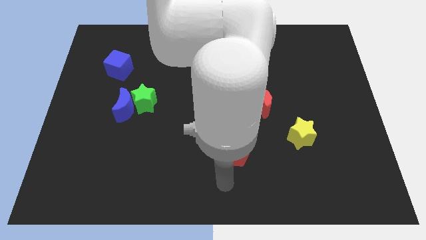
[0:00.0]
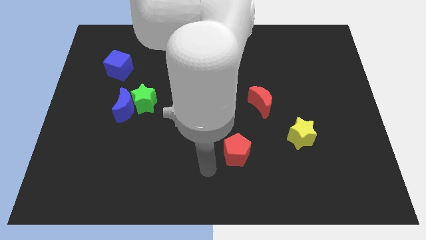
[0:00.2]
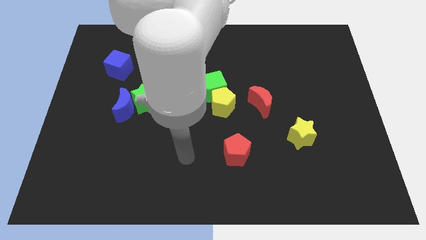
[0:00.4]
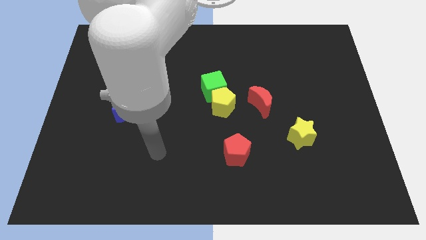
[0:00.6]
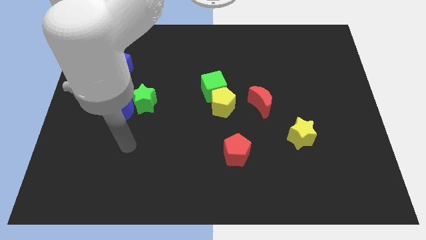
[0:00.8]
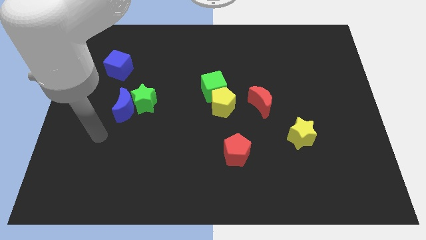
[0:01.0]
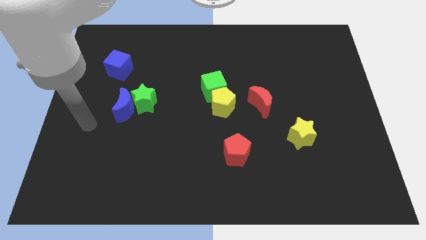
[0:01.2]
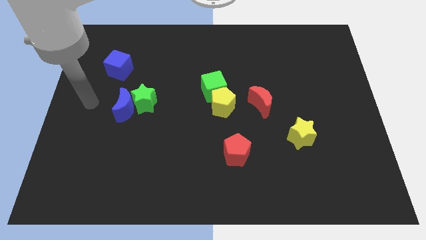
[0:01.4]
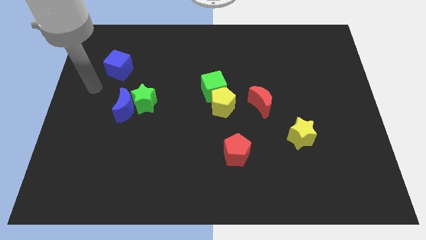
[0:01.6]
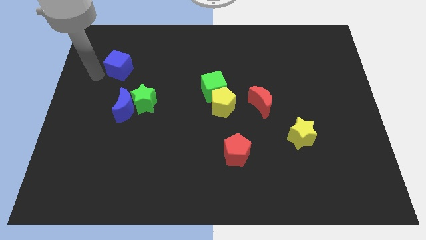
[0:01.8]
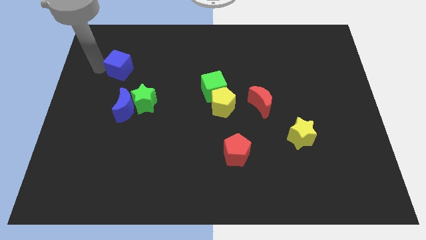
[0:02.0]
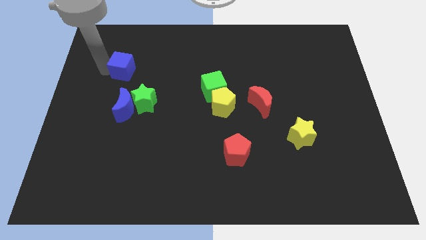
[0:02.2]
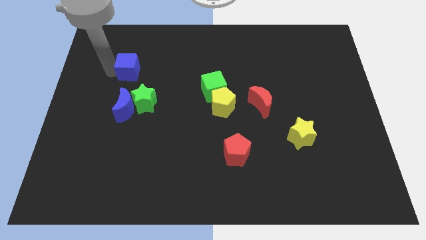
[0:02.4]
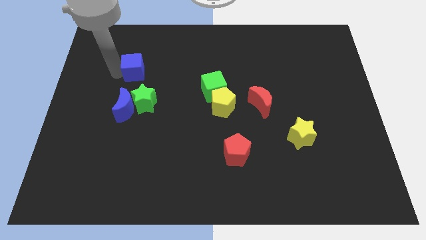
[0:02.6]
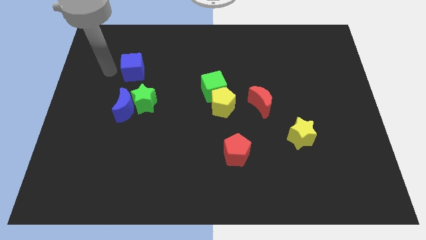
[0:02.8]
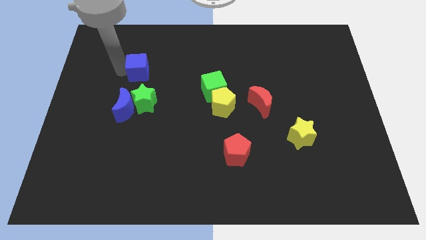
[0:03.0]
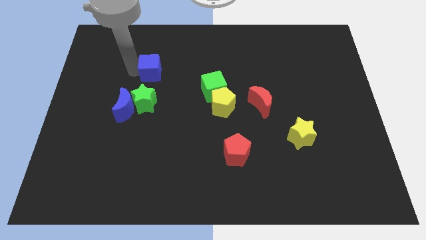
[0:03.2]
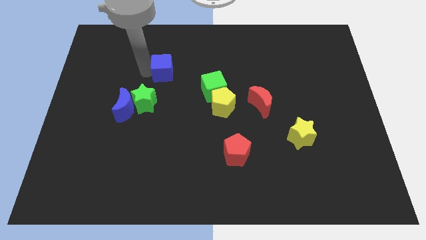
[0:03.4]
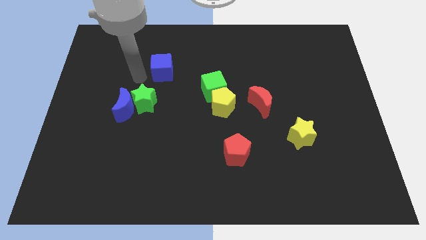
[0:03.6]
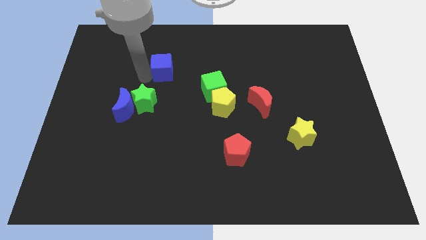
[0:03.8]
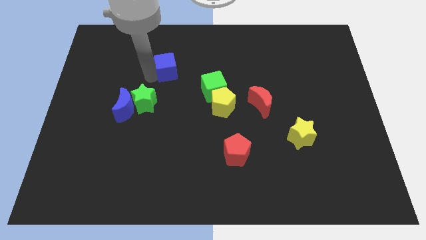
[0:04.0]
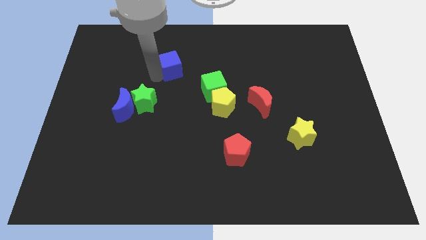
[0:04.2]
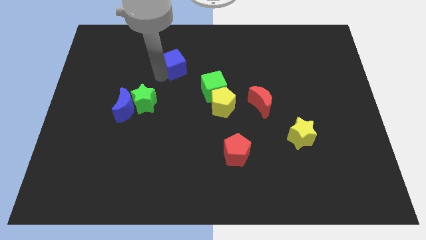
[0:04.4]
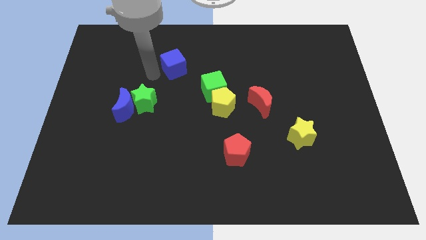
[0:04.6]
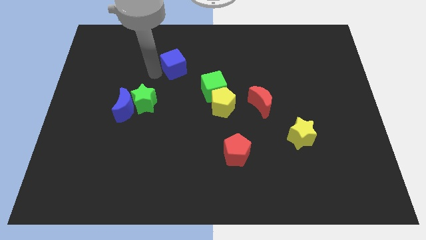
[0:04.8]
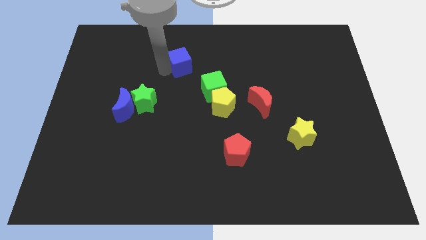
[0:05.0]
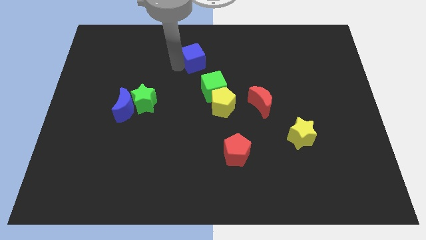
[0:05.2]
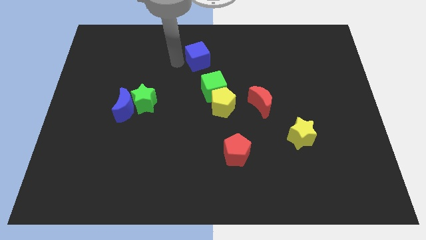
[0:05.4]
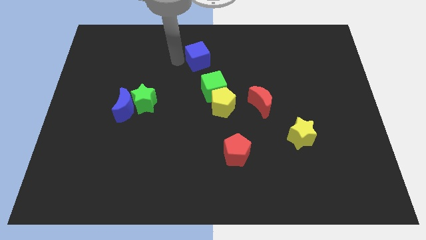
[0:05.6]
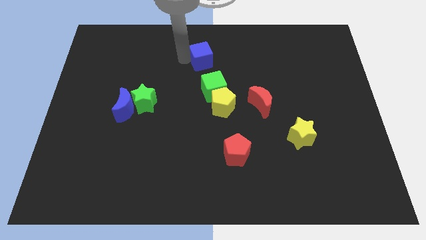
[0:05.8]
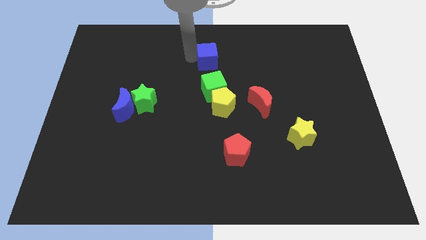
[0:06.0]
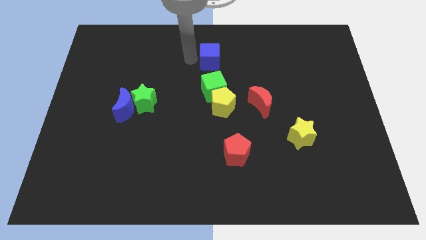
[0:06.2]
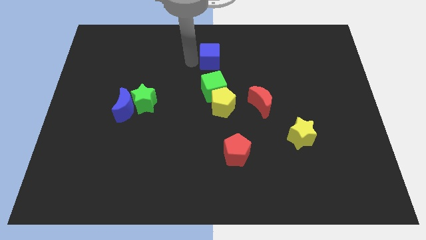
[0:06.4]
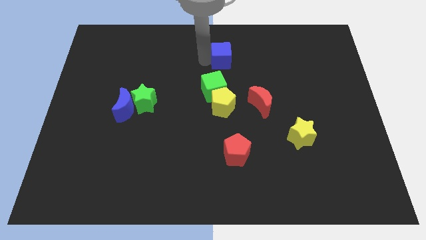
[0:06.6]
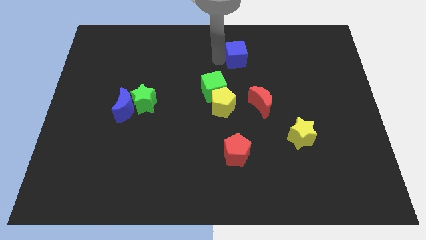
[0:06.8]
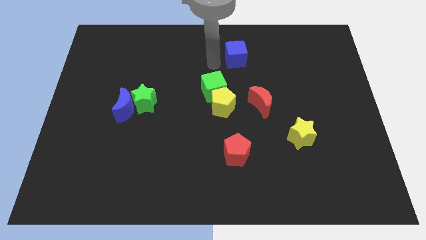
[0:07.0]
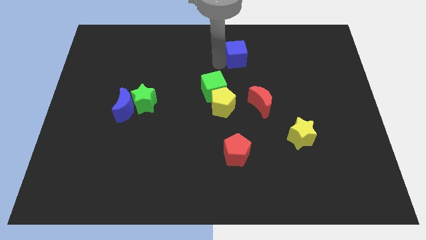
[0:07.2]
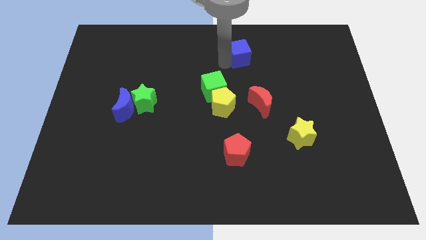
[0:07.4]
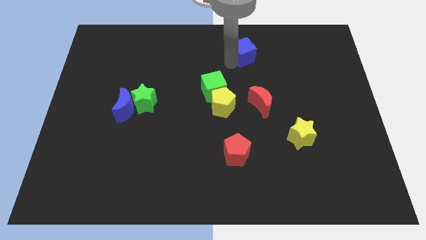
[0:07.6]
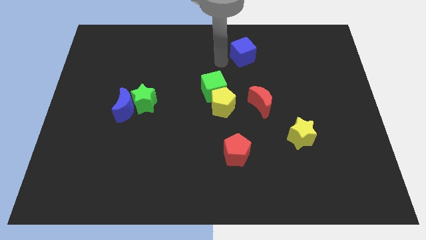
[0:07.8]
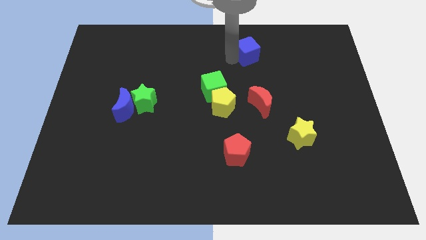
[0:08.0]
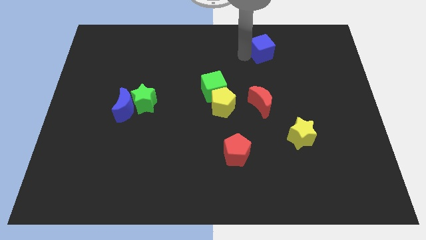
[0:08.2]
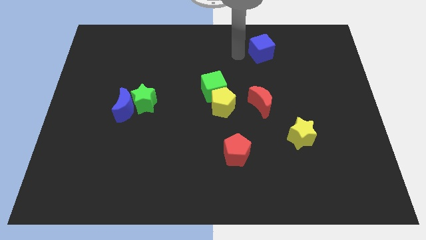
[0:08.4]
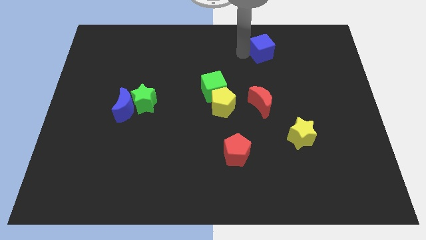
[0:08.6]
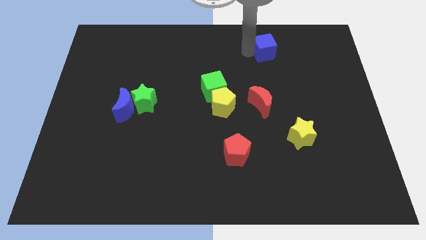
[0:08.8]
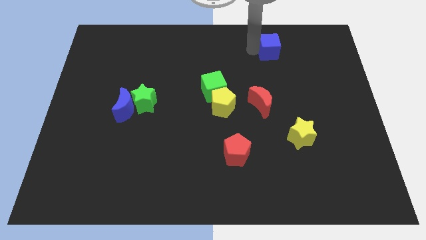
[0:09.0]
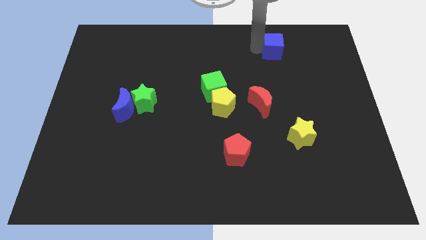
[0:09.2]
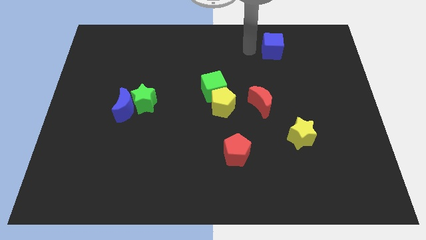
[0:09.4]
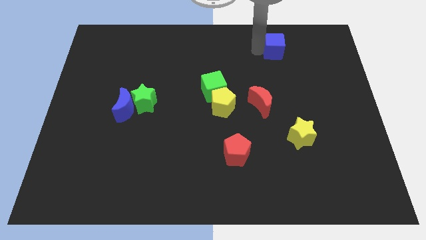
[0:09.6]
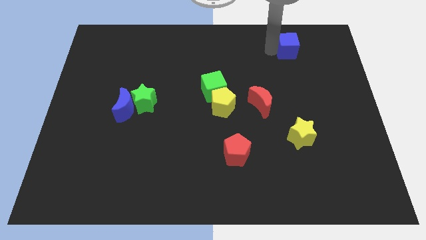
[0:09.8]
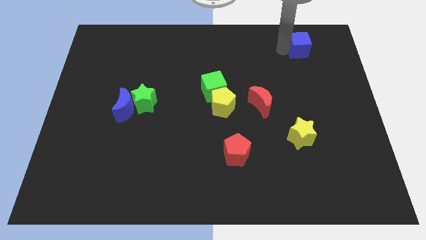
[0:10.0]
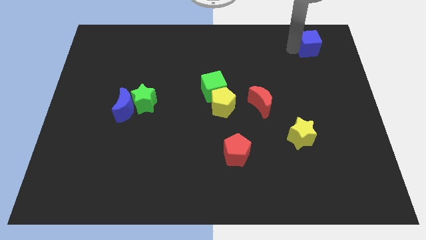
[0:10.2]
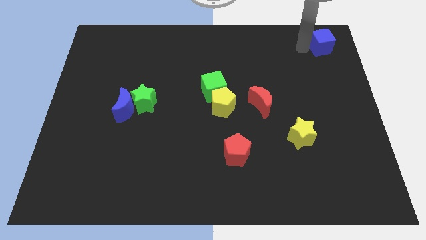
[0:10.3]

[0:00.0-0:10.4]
push the blue cube to the top right corner

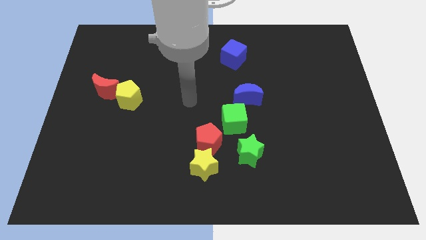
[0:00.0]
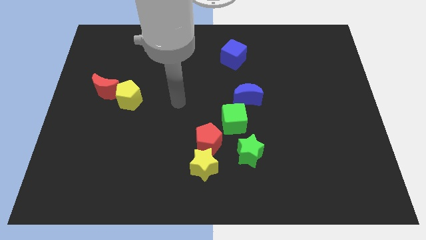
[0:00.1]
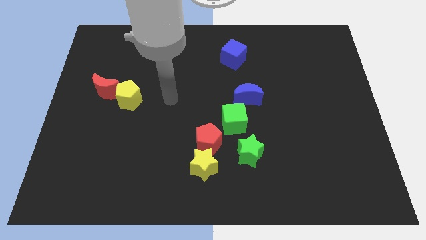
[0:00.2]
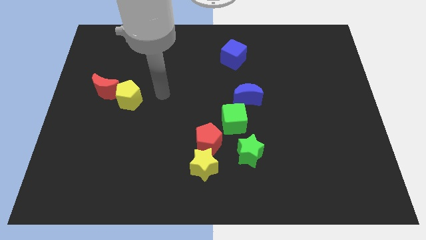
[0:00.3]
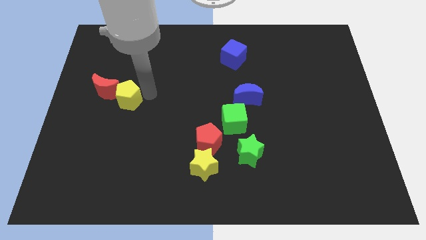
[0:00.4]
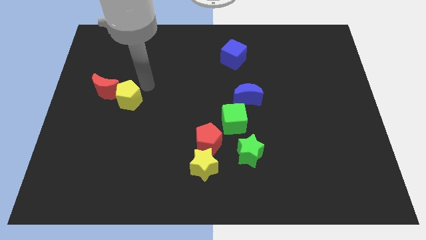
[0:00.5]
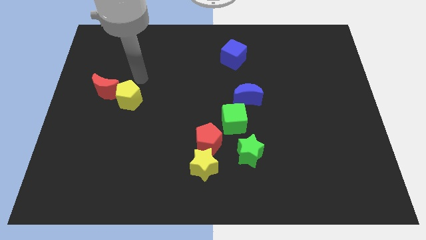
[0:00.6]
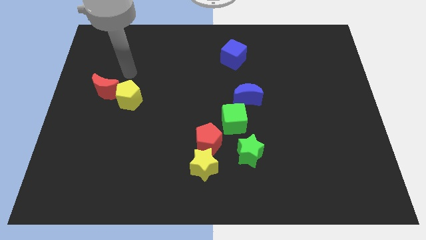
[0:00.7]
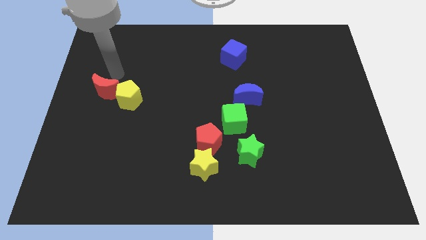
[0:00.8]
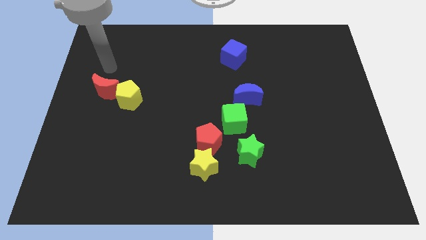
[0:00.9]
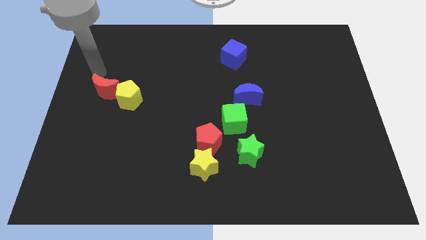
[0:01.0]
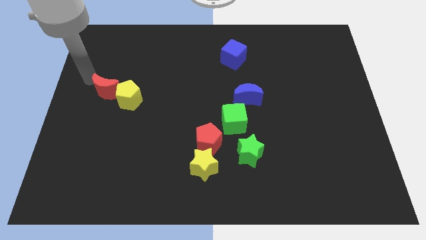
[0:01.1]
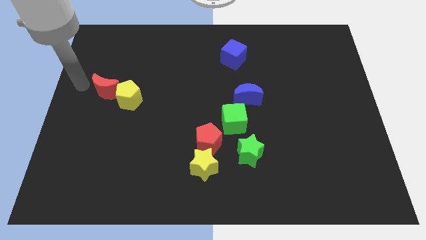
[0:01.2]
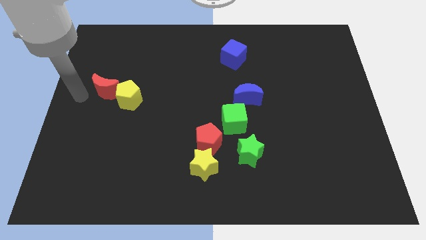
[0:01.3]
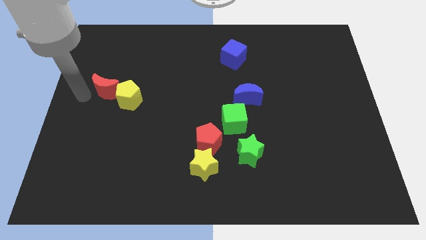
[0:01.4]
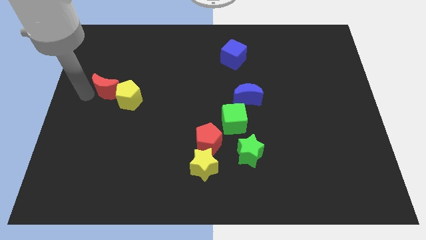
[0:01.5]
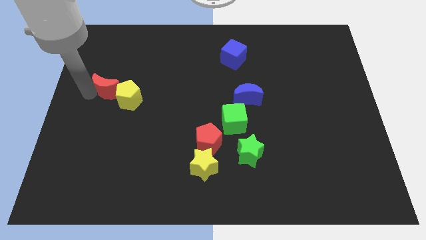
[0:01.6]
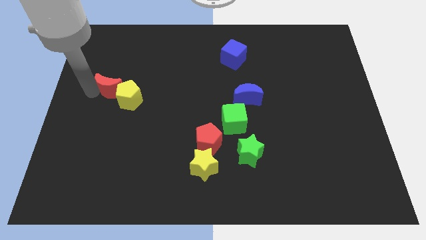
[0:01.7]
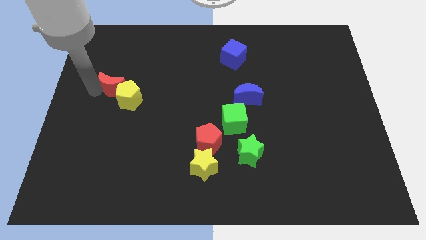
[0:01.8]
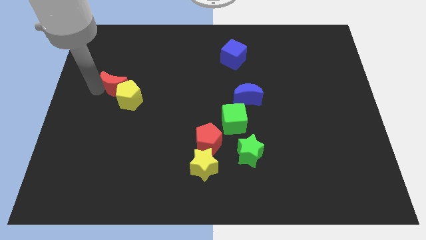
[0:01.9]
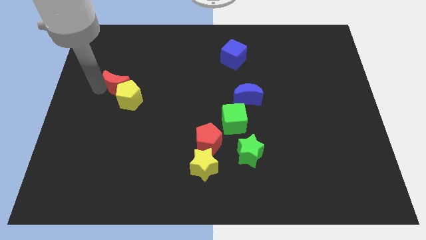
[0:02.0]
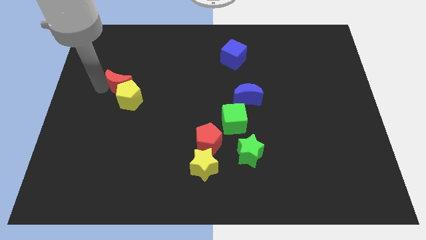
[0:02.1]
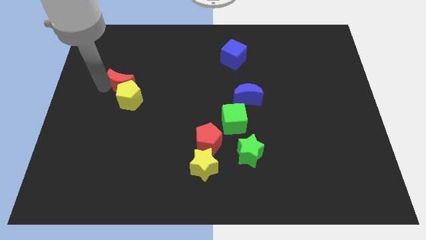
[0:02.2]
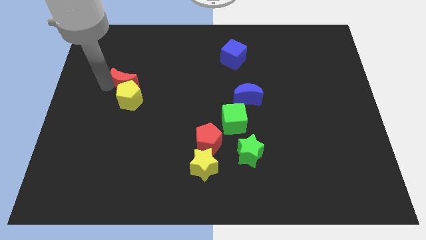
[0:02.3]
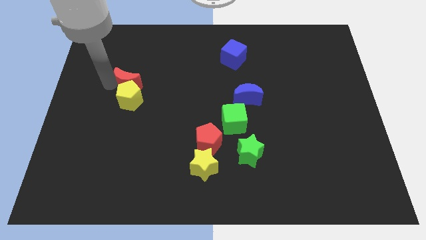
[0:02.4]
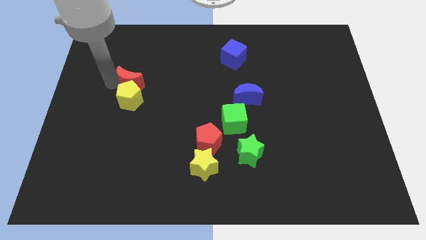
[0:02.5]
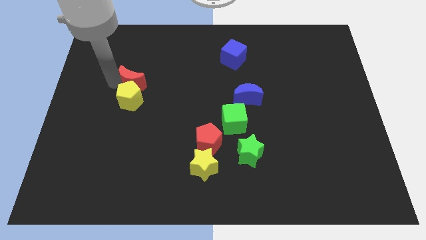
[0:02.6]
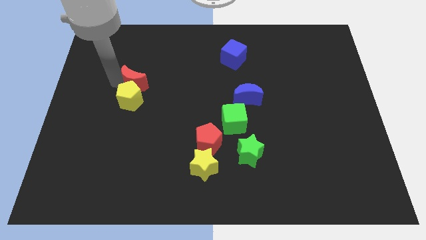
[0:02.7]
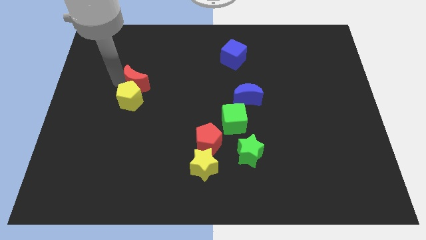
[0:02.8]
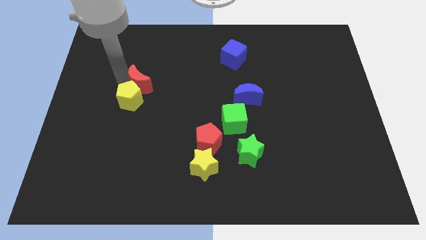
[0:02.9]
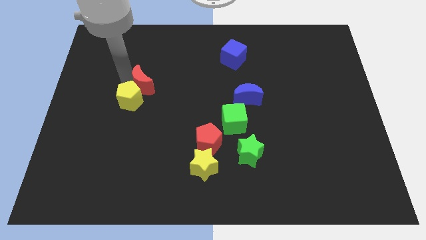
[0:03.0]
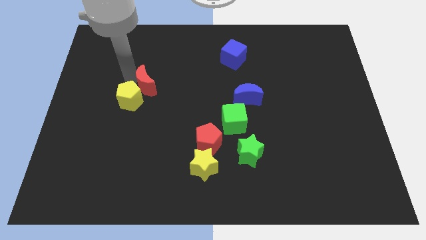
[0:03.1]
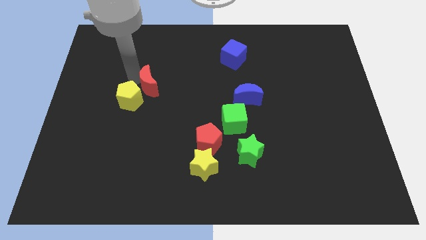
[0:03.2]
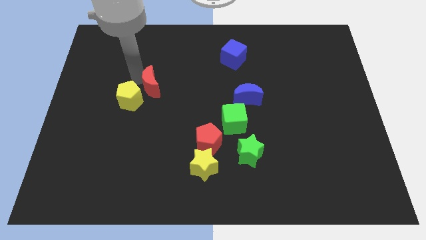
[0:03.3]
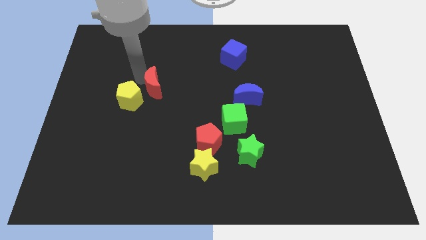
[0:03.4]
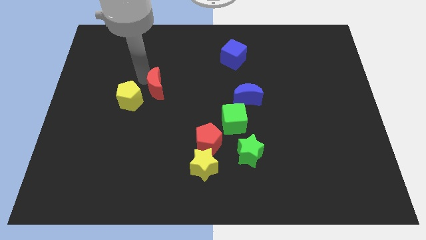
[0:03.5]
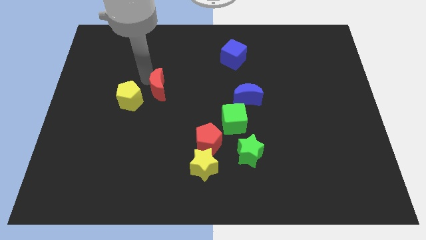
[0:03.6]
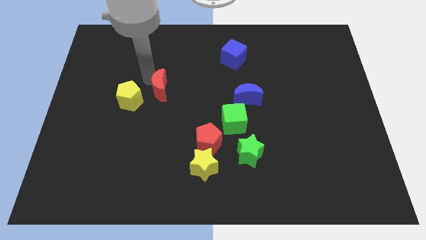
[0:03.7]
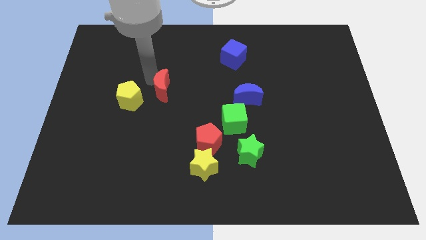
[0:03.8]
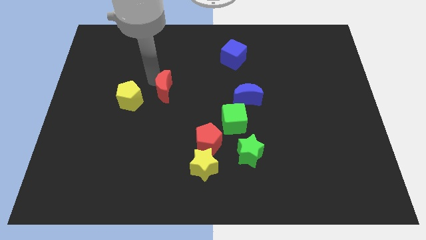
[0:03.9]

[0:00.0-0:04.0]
slide the red moon to the middle
